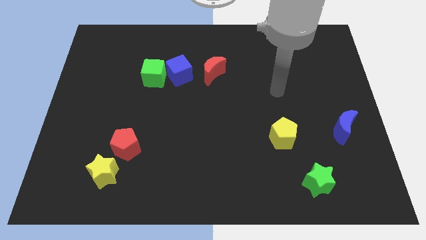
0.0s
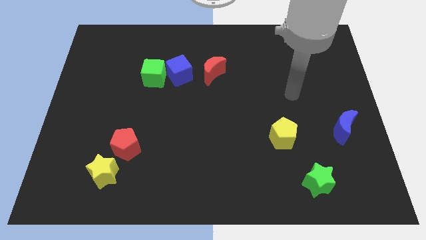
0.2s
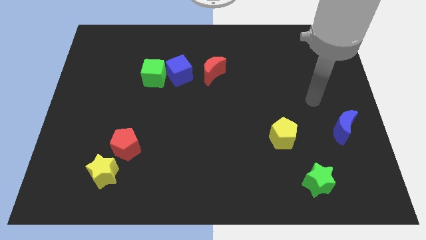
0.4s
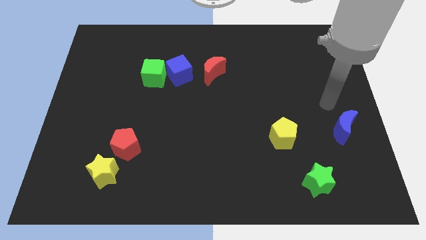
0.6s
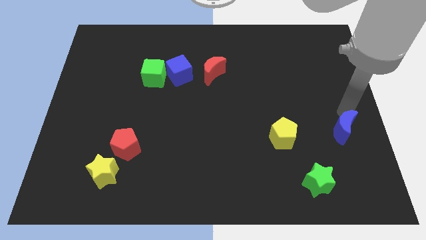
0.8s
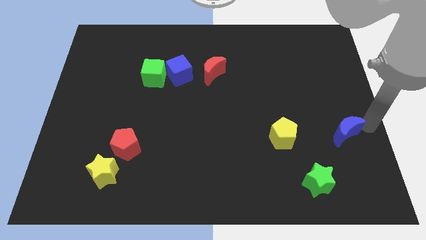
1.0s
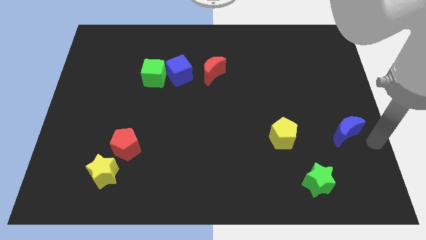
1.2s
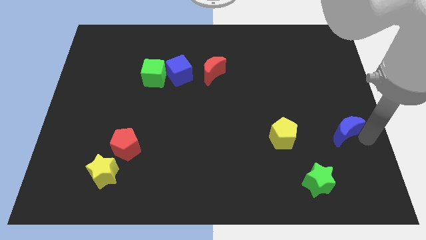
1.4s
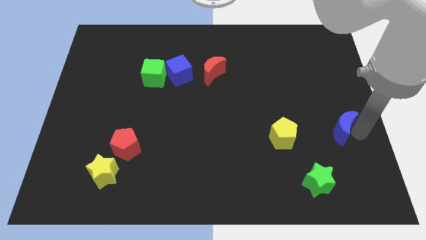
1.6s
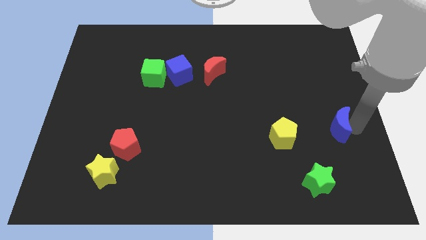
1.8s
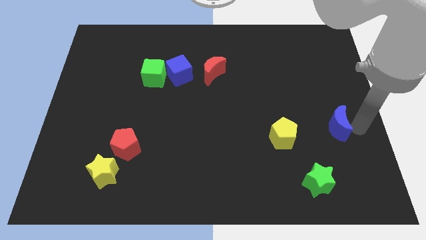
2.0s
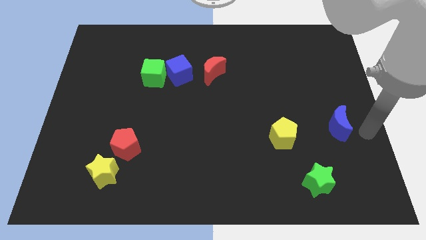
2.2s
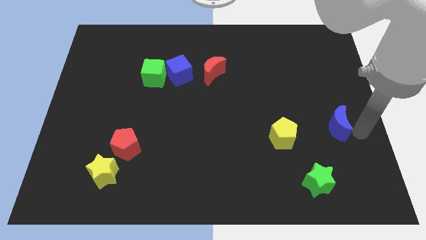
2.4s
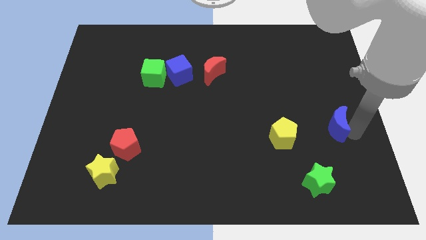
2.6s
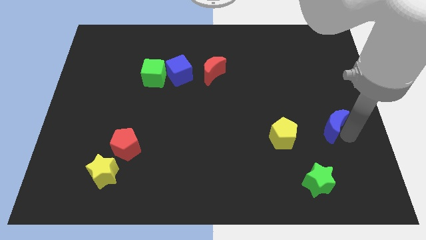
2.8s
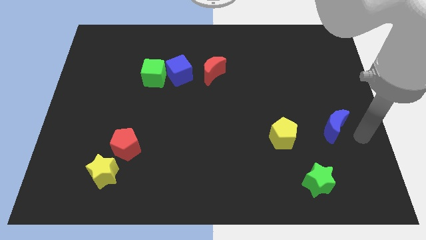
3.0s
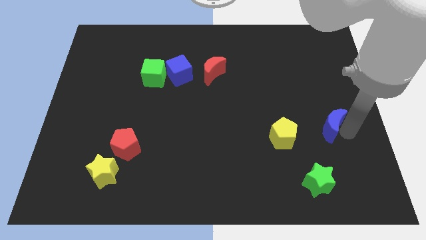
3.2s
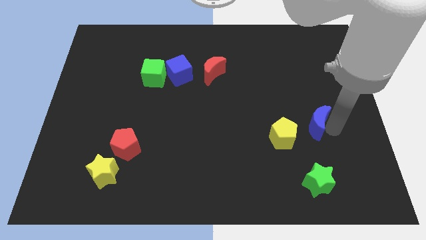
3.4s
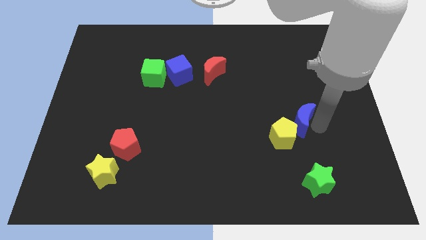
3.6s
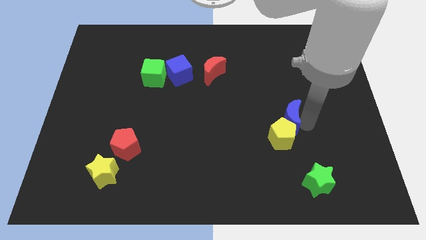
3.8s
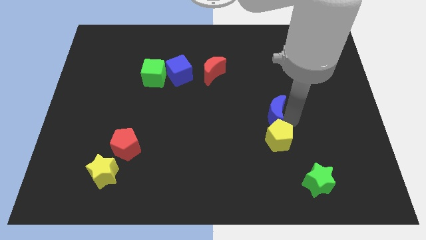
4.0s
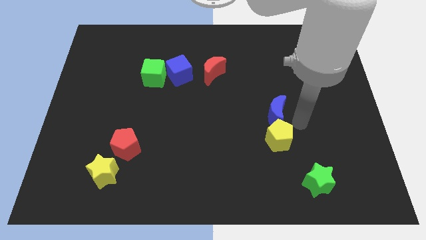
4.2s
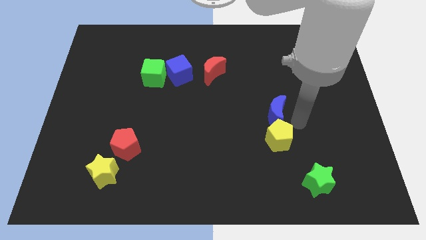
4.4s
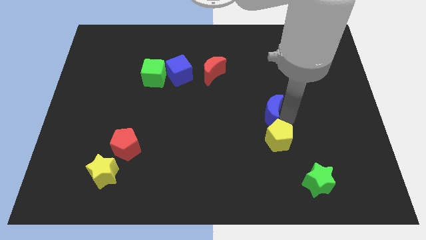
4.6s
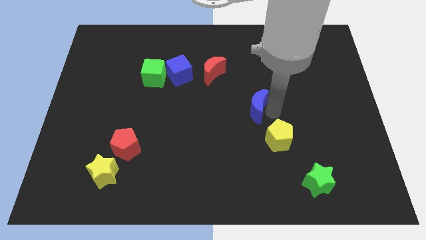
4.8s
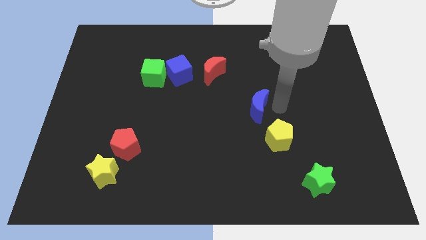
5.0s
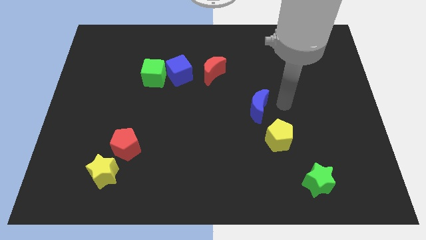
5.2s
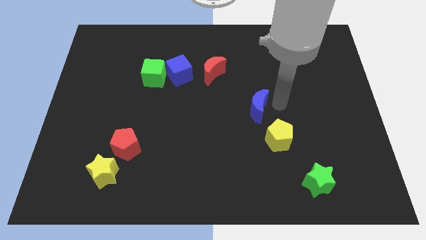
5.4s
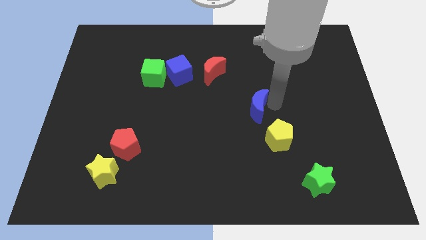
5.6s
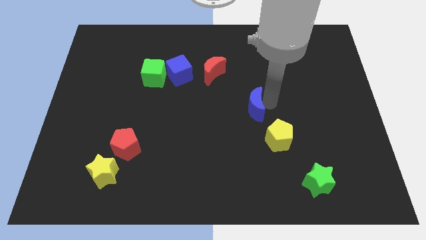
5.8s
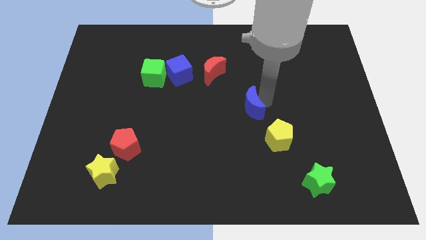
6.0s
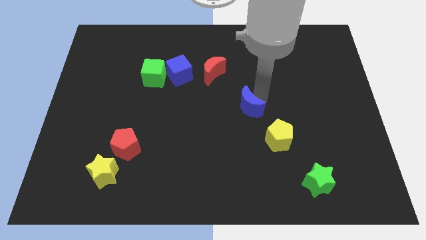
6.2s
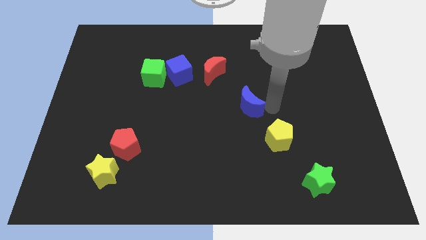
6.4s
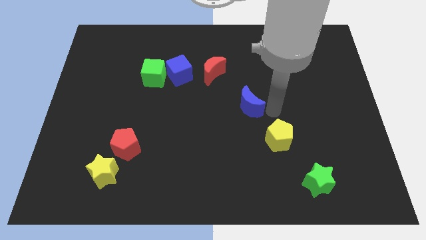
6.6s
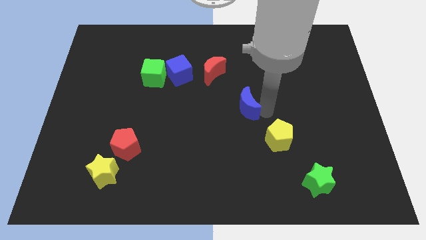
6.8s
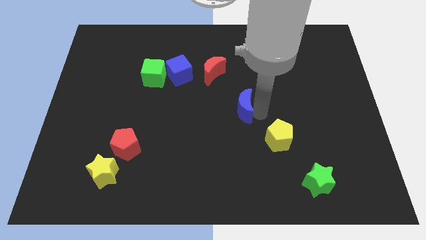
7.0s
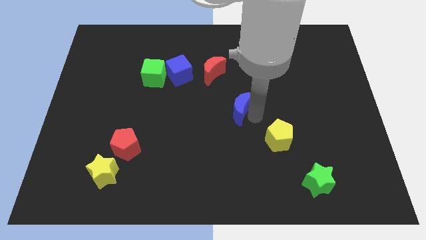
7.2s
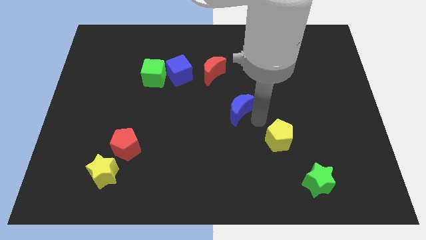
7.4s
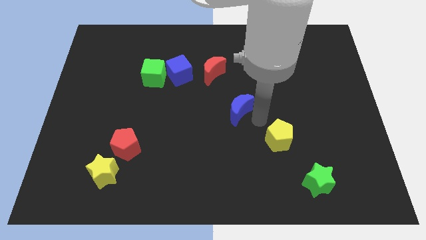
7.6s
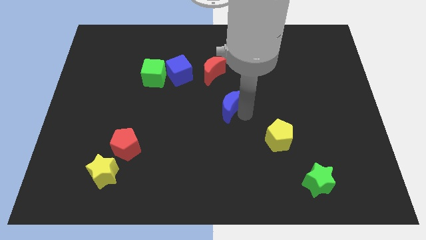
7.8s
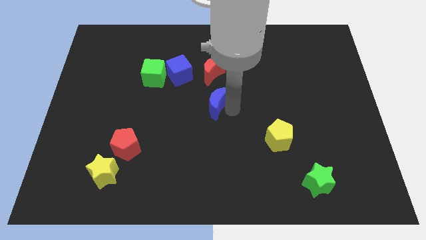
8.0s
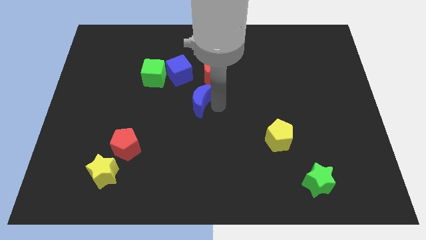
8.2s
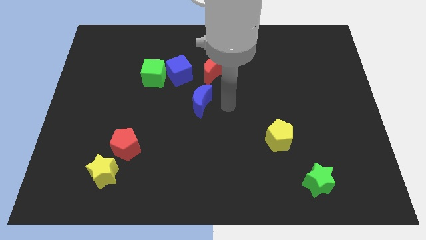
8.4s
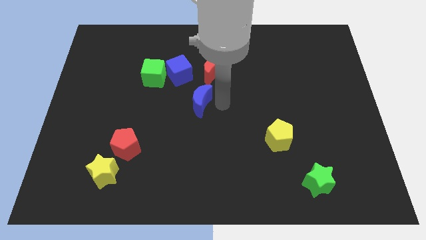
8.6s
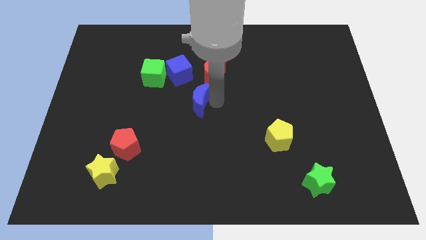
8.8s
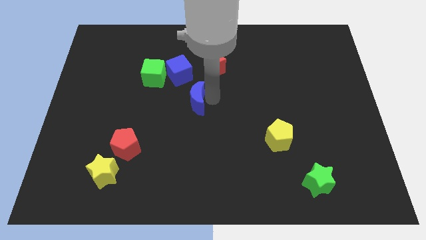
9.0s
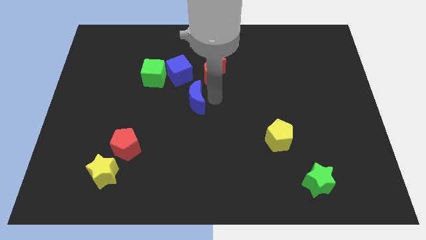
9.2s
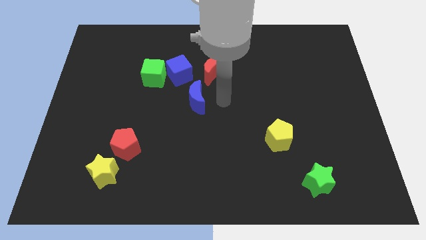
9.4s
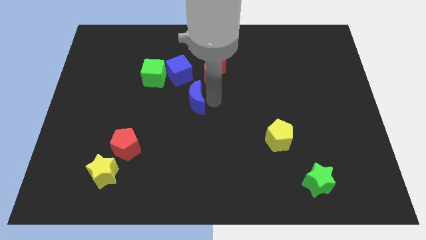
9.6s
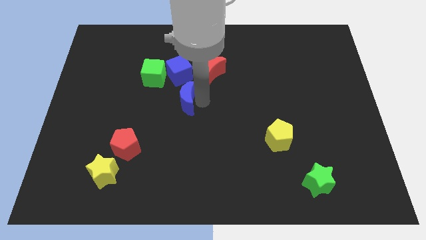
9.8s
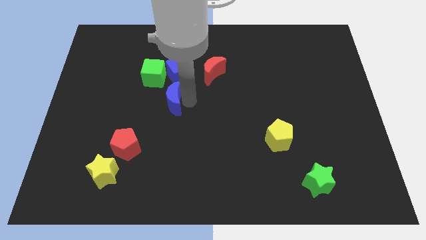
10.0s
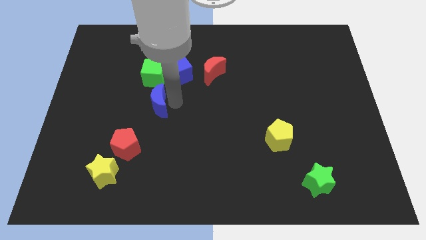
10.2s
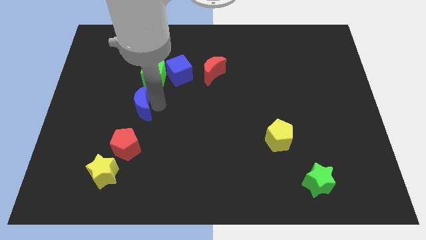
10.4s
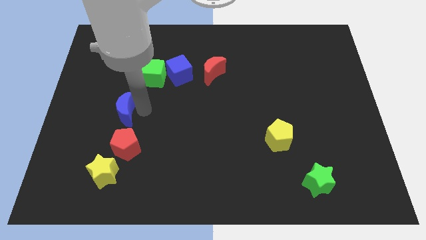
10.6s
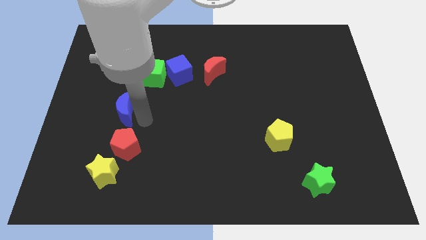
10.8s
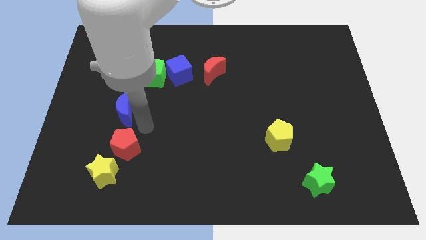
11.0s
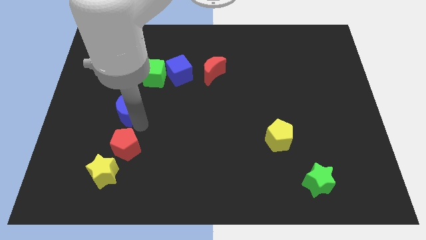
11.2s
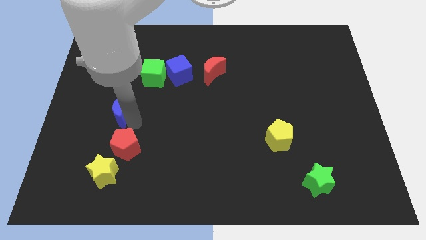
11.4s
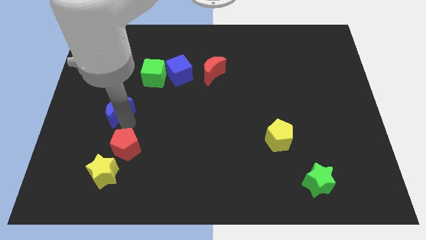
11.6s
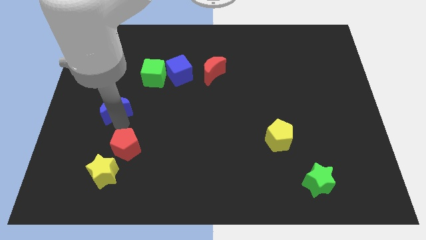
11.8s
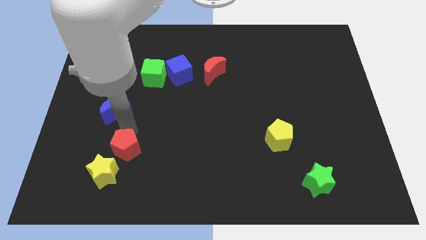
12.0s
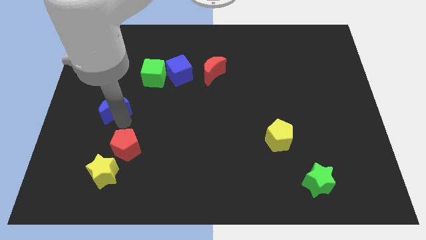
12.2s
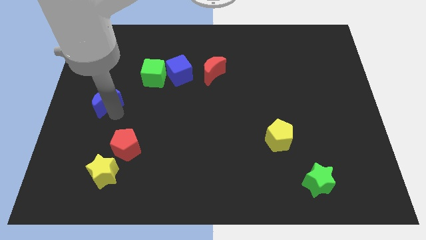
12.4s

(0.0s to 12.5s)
slide the blue moon to the left side

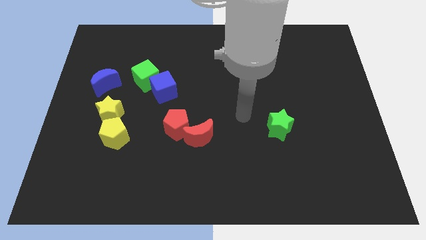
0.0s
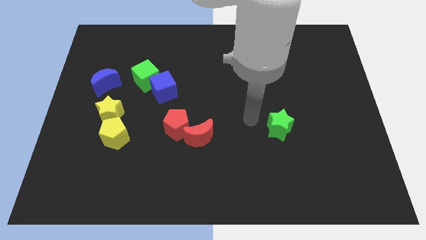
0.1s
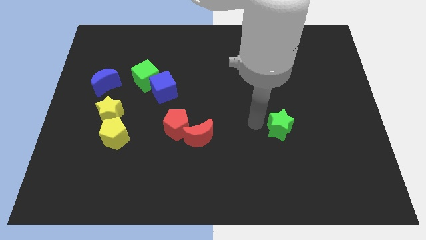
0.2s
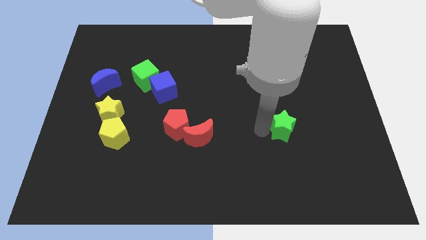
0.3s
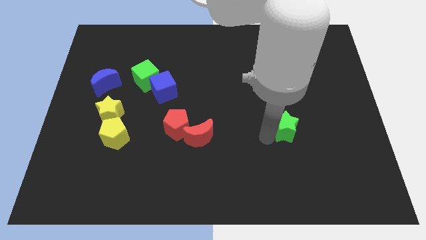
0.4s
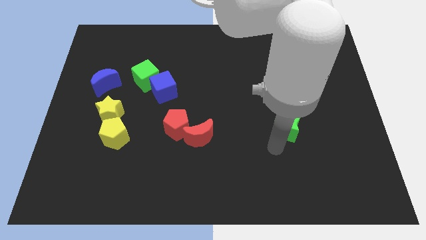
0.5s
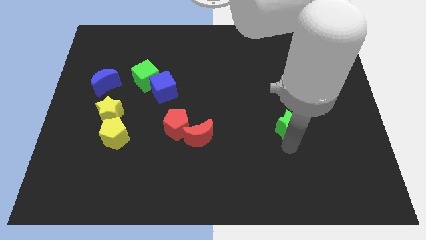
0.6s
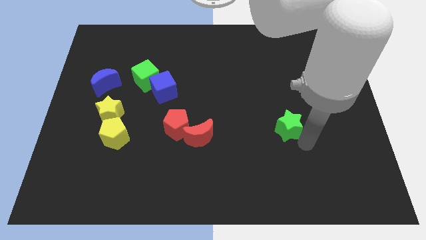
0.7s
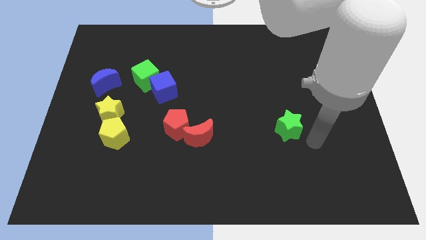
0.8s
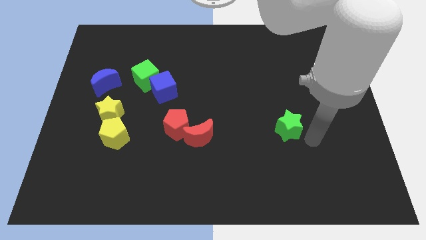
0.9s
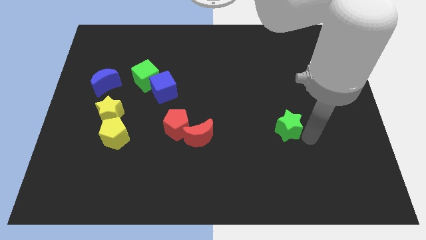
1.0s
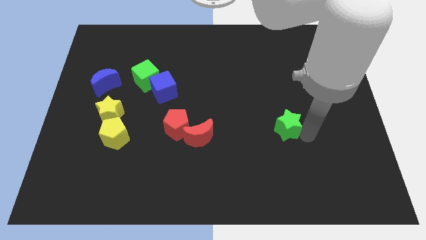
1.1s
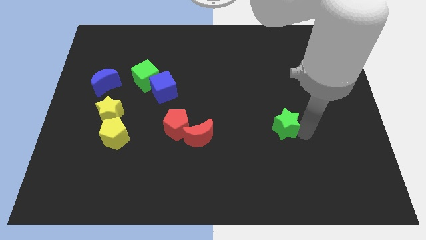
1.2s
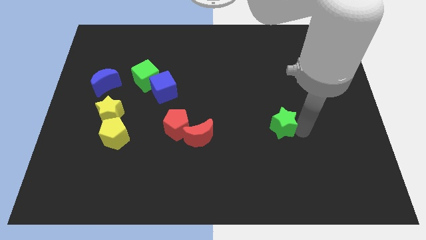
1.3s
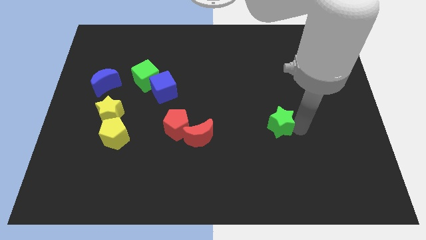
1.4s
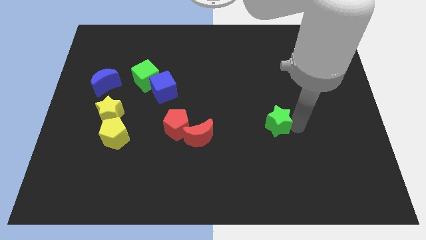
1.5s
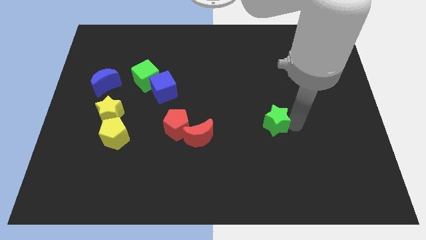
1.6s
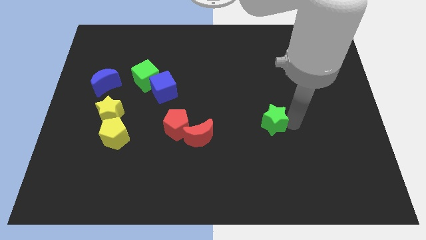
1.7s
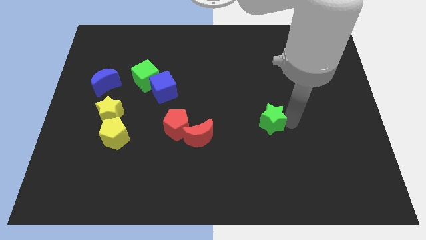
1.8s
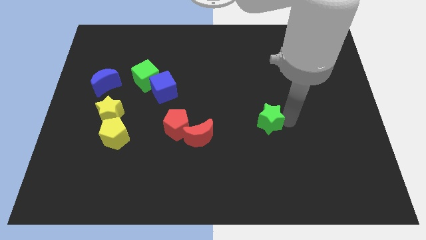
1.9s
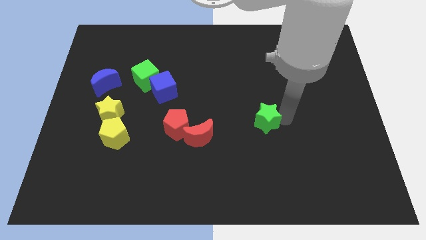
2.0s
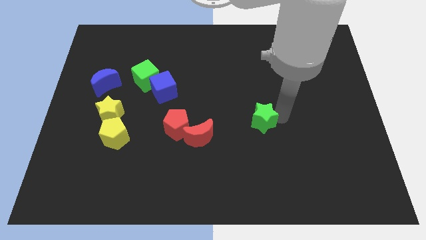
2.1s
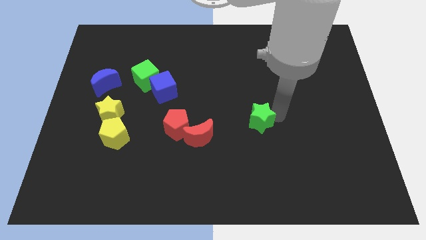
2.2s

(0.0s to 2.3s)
put the green star to the middle
